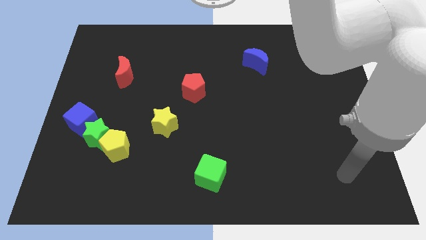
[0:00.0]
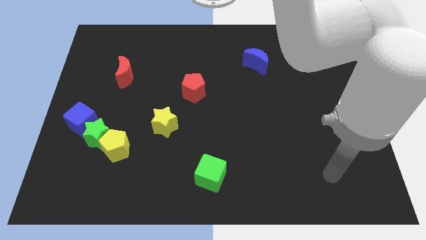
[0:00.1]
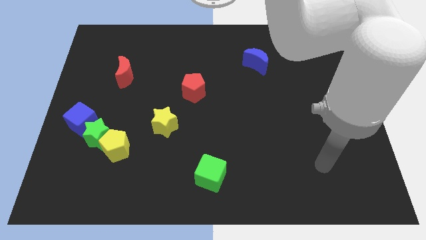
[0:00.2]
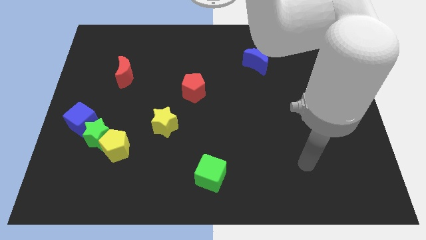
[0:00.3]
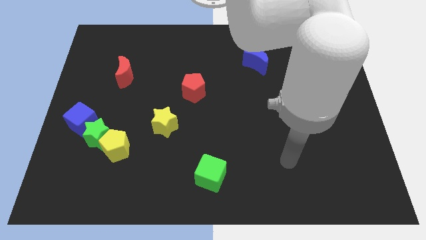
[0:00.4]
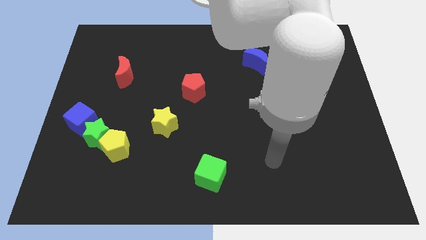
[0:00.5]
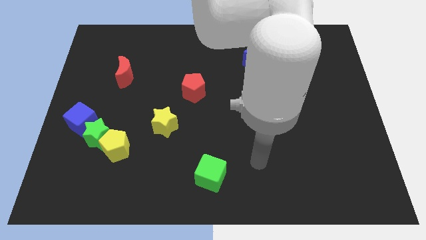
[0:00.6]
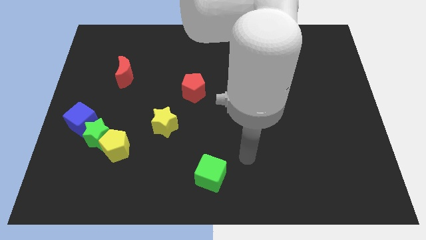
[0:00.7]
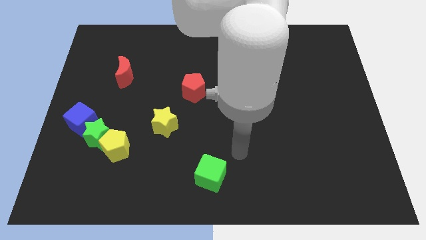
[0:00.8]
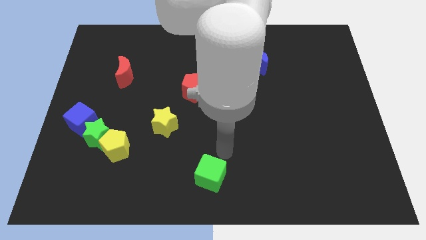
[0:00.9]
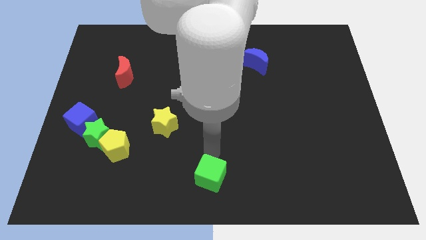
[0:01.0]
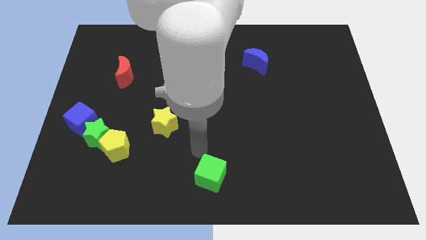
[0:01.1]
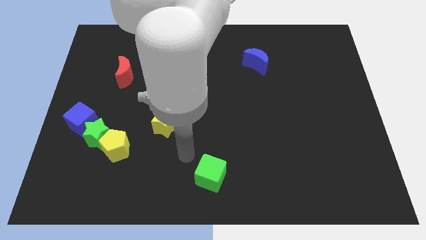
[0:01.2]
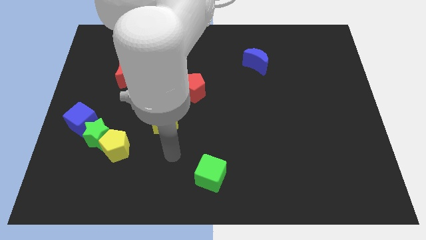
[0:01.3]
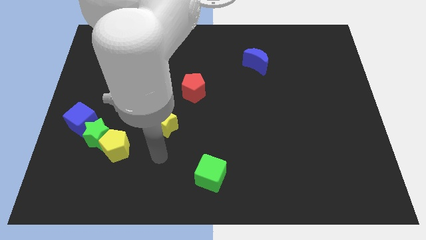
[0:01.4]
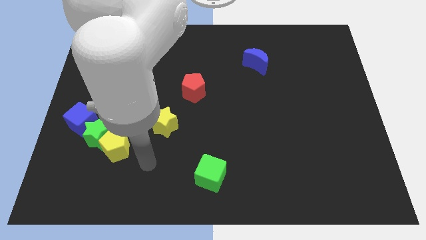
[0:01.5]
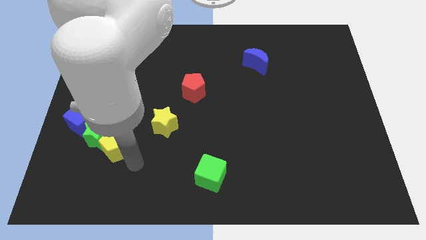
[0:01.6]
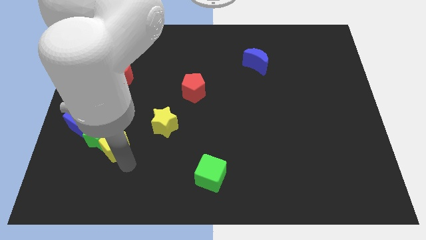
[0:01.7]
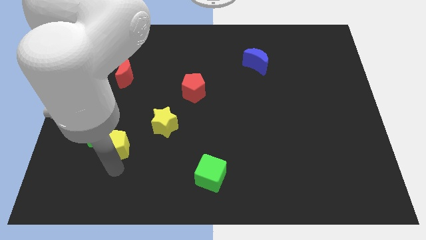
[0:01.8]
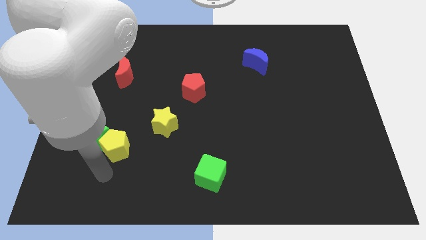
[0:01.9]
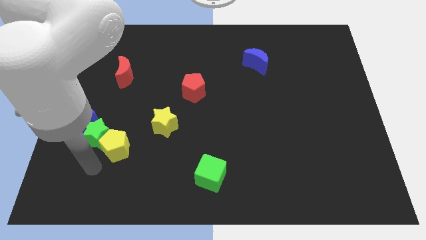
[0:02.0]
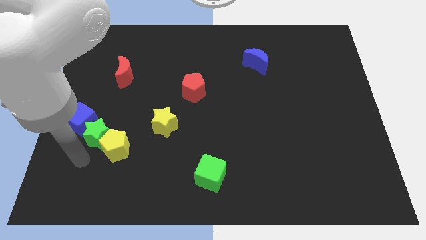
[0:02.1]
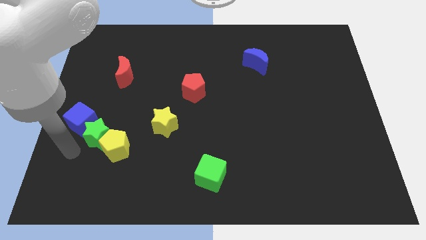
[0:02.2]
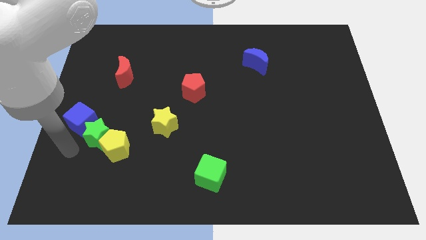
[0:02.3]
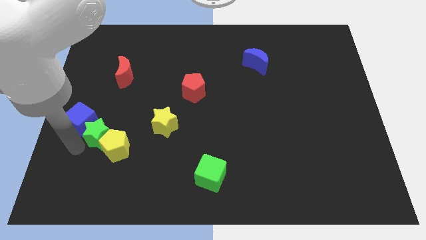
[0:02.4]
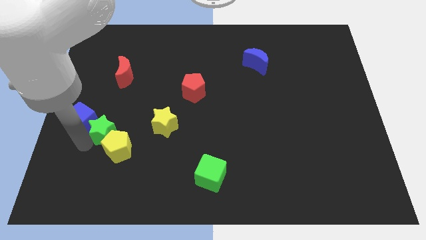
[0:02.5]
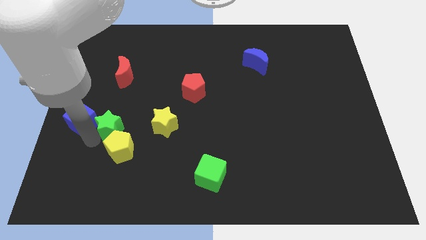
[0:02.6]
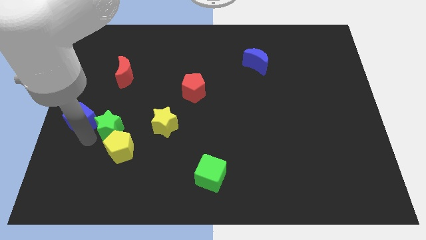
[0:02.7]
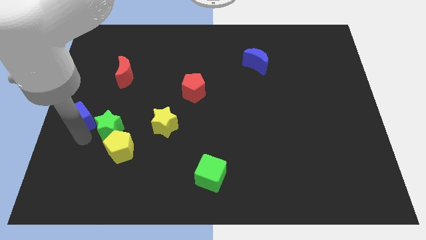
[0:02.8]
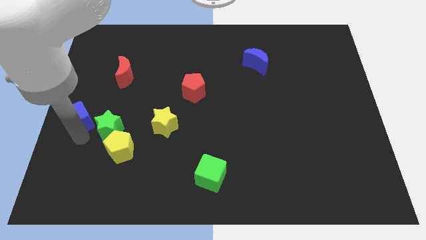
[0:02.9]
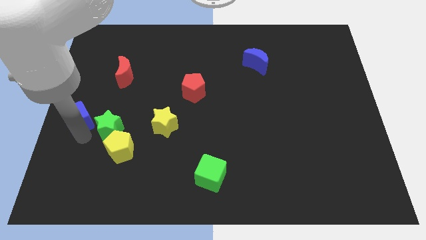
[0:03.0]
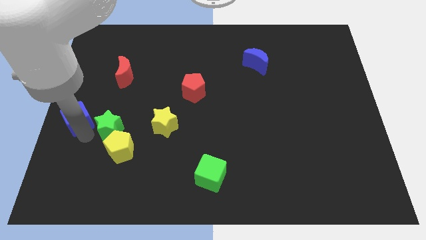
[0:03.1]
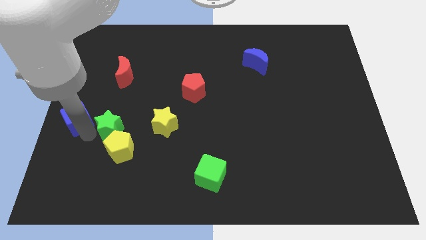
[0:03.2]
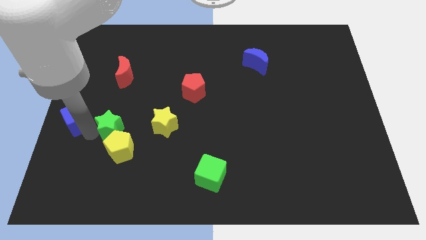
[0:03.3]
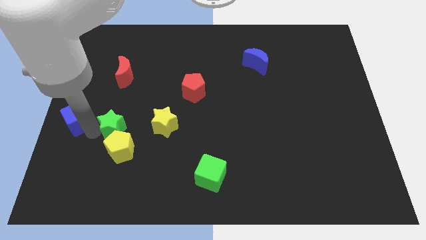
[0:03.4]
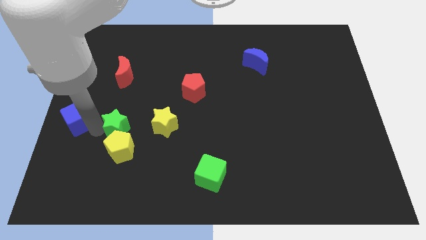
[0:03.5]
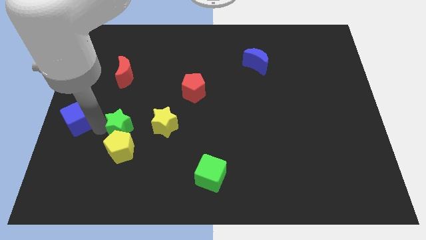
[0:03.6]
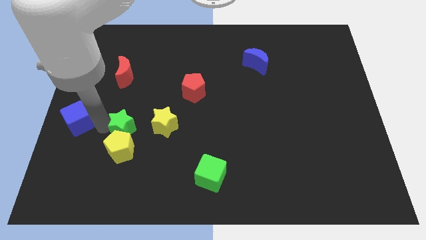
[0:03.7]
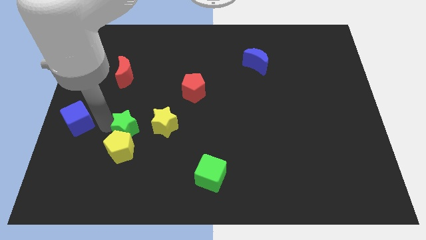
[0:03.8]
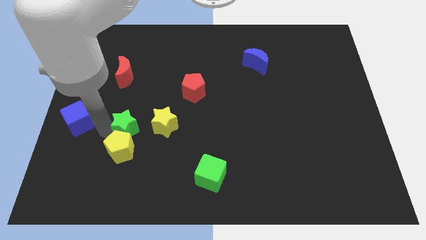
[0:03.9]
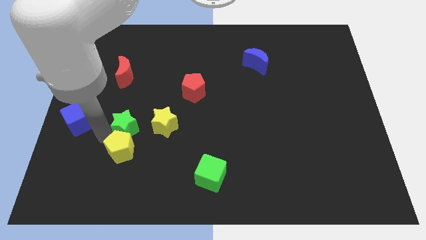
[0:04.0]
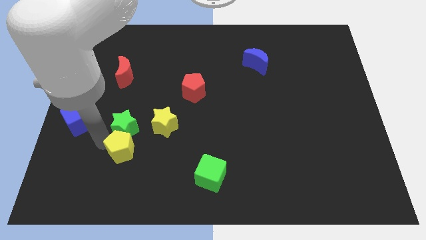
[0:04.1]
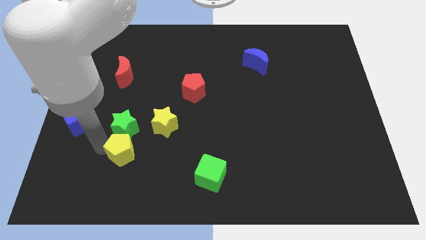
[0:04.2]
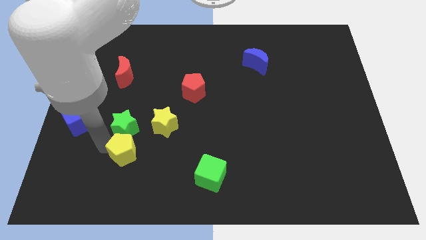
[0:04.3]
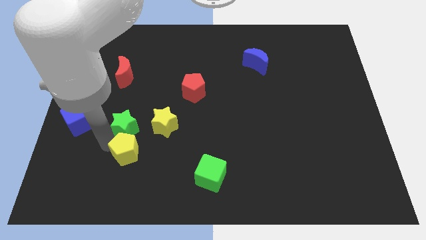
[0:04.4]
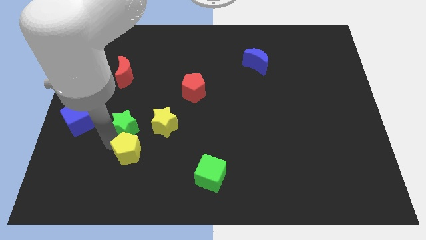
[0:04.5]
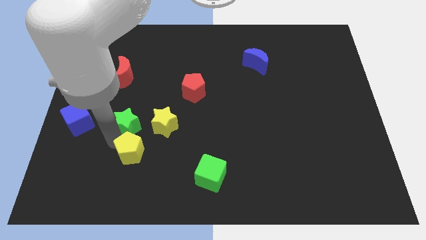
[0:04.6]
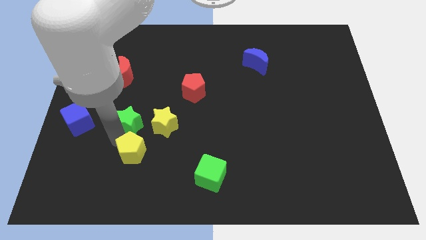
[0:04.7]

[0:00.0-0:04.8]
move the green star a little diagonally upwards and right

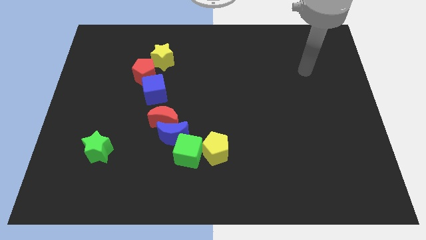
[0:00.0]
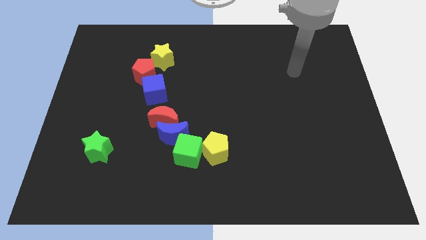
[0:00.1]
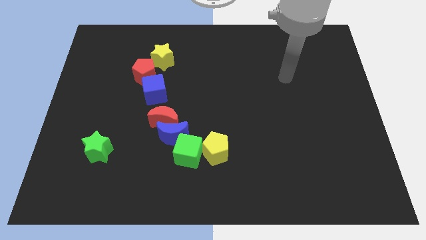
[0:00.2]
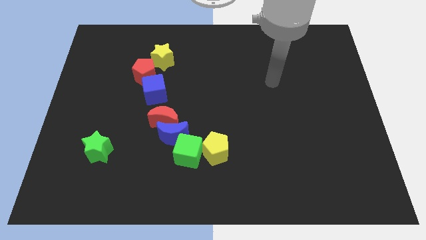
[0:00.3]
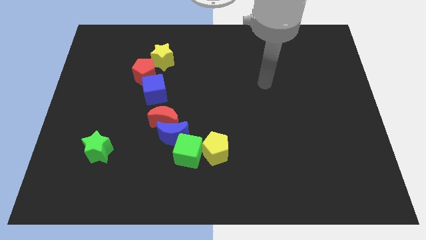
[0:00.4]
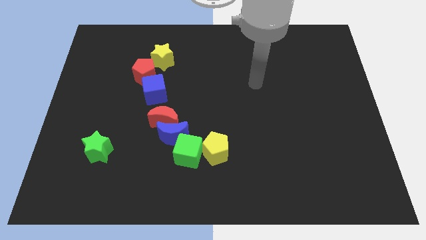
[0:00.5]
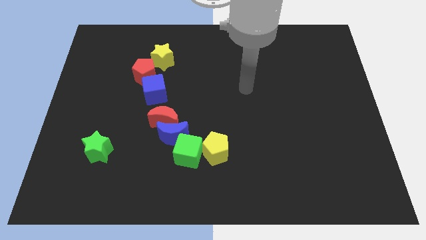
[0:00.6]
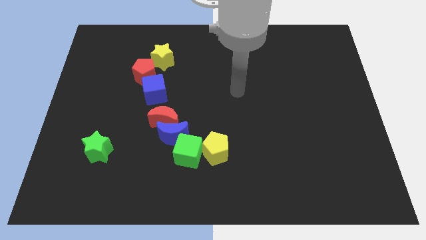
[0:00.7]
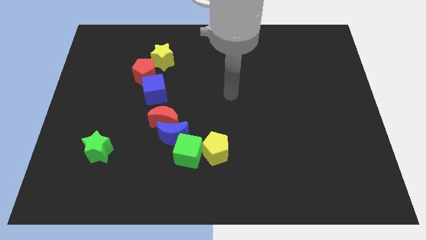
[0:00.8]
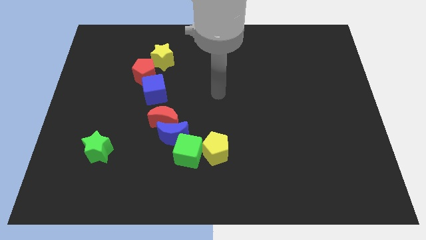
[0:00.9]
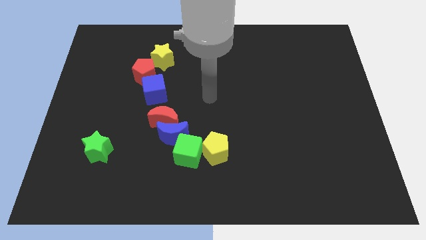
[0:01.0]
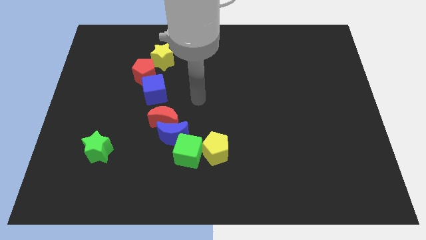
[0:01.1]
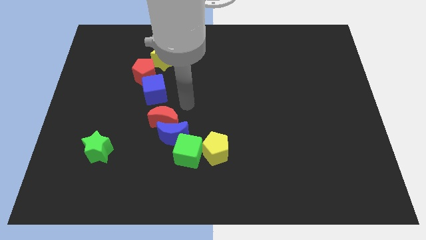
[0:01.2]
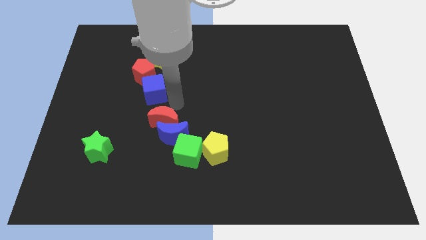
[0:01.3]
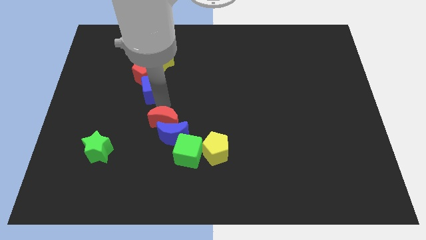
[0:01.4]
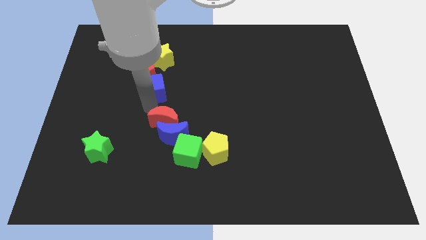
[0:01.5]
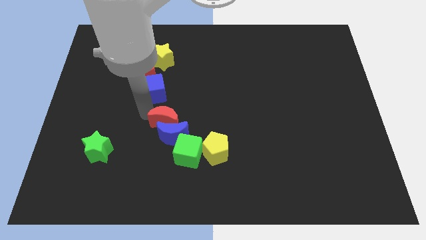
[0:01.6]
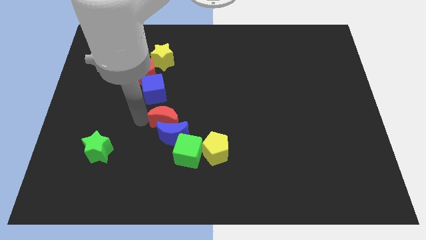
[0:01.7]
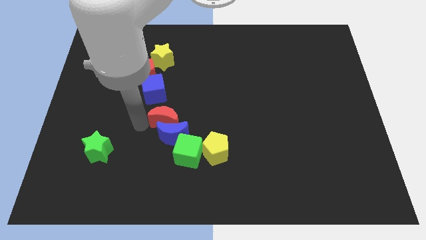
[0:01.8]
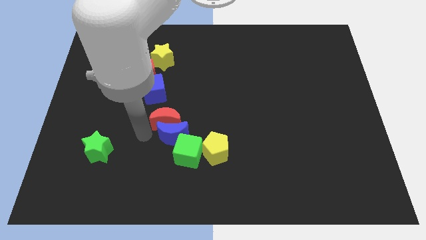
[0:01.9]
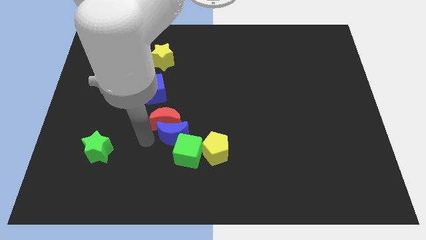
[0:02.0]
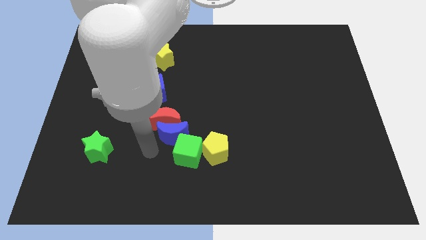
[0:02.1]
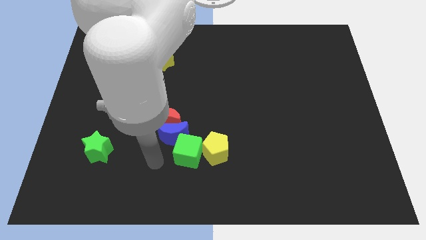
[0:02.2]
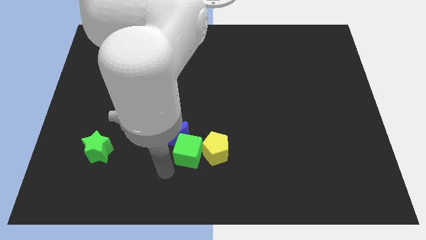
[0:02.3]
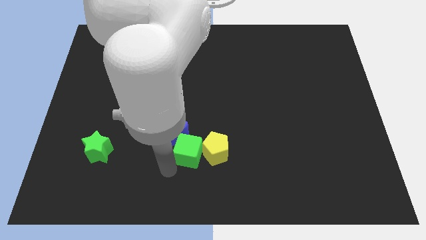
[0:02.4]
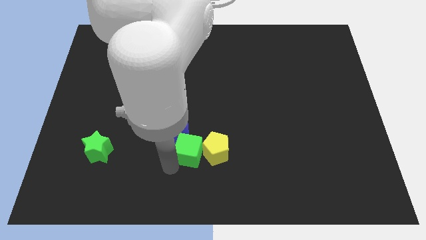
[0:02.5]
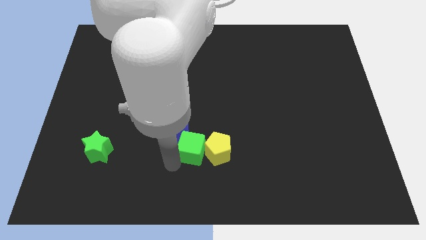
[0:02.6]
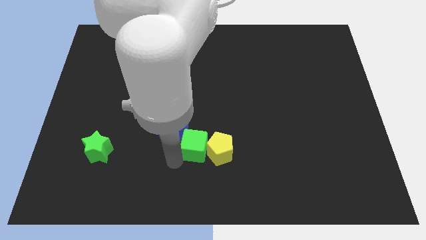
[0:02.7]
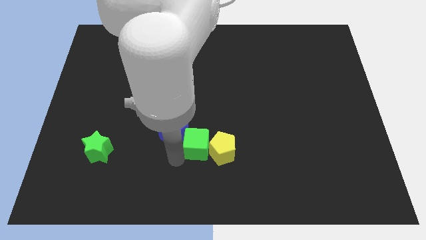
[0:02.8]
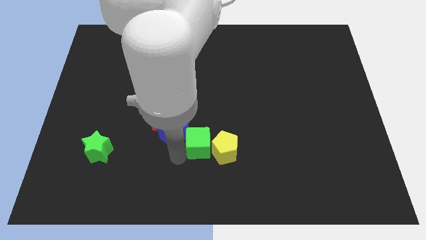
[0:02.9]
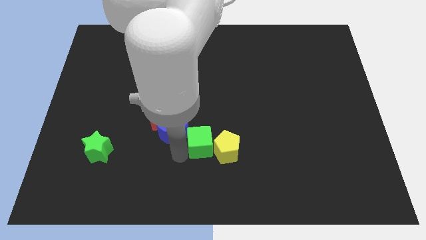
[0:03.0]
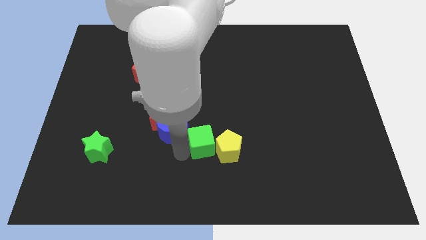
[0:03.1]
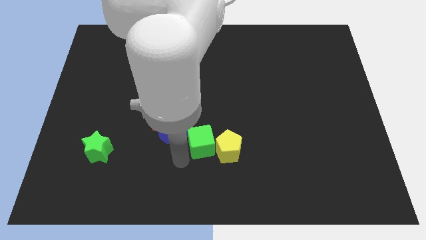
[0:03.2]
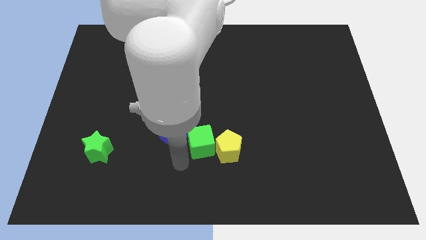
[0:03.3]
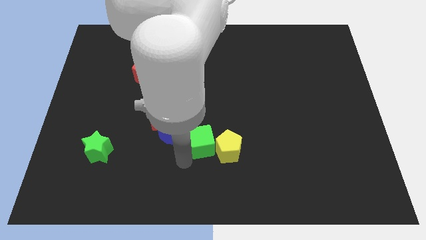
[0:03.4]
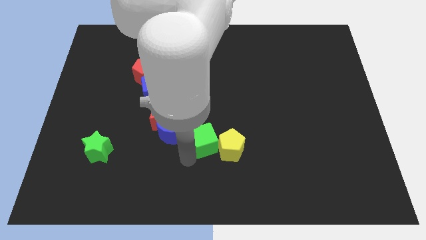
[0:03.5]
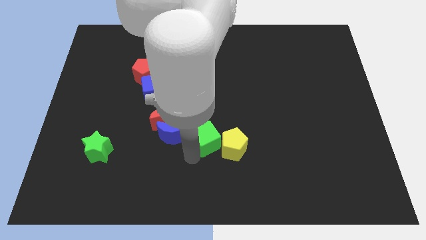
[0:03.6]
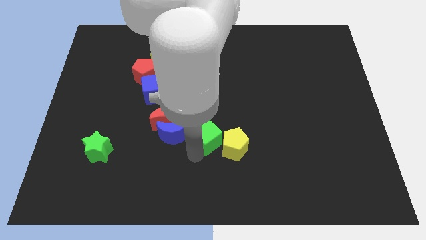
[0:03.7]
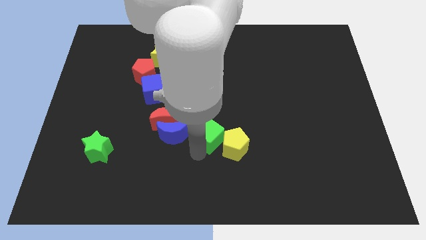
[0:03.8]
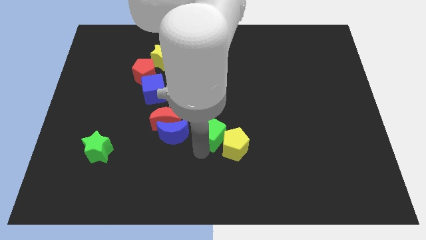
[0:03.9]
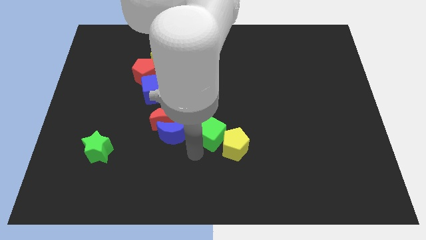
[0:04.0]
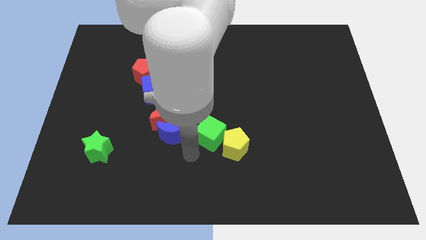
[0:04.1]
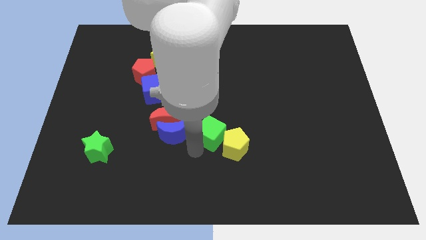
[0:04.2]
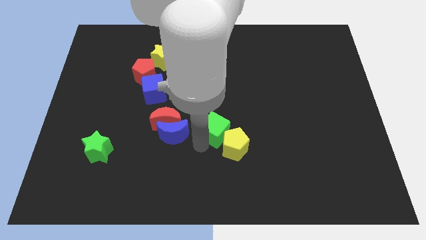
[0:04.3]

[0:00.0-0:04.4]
slightly push the green cube up and then to the right
